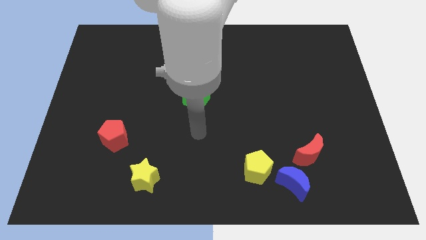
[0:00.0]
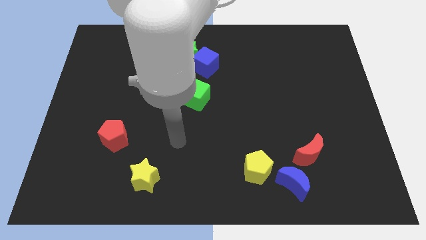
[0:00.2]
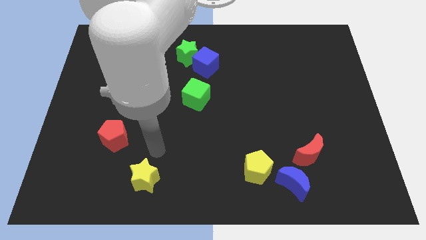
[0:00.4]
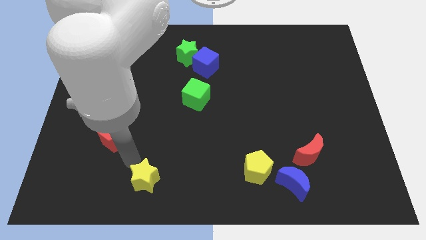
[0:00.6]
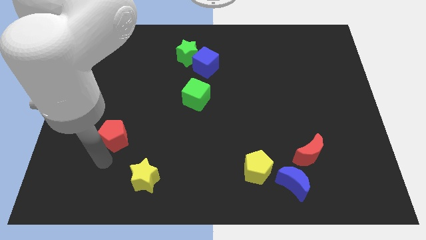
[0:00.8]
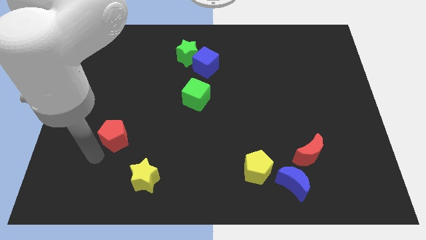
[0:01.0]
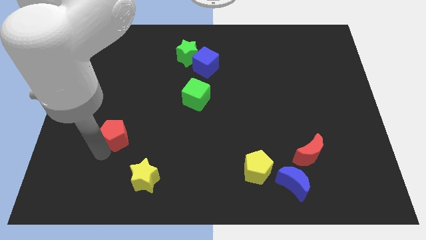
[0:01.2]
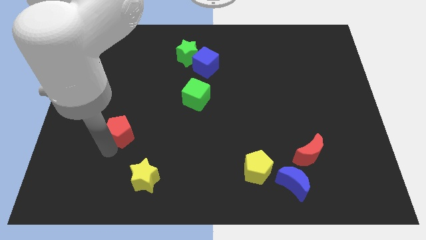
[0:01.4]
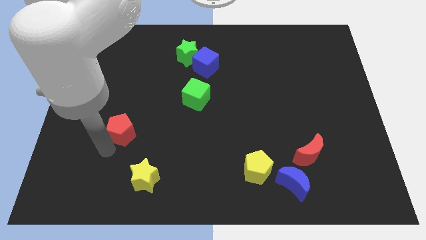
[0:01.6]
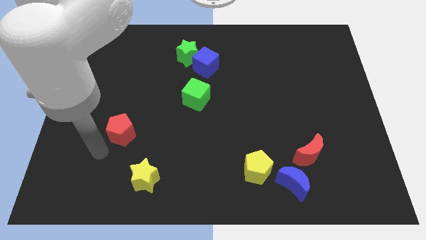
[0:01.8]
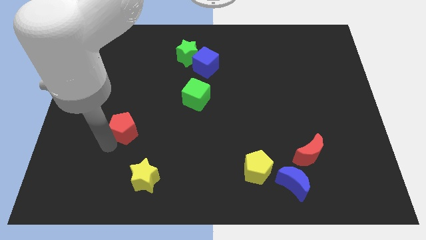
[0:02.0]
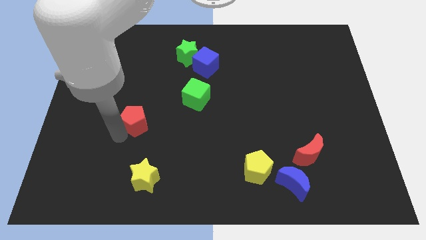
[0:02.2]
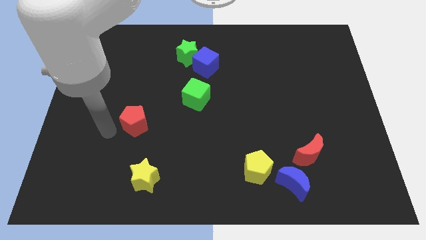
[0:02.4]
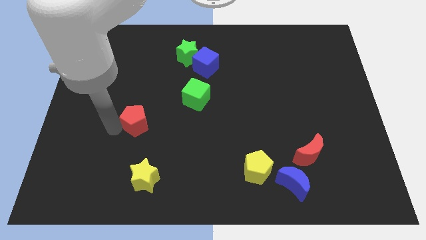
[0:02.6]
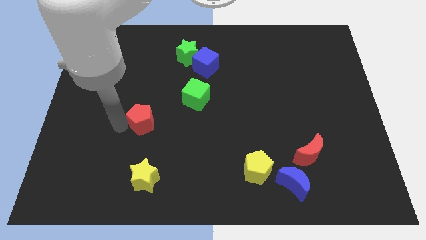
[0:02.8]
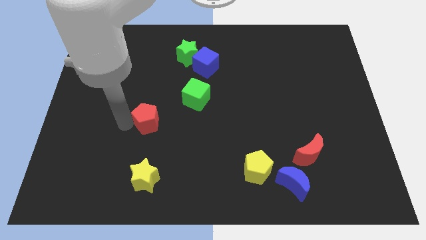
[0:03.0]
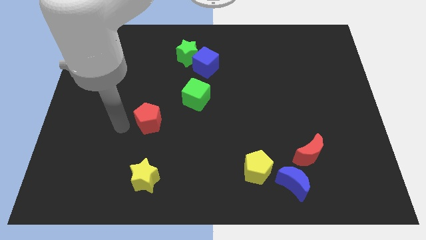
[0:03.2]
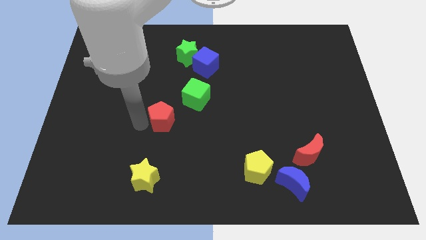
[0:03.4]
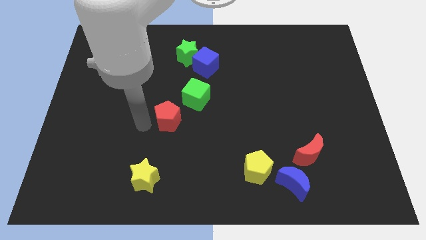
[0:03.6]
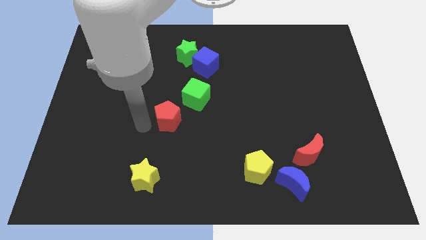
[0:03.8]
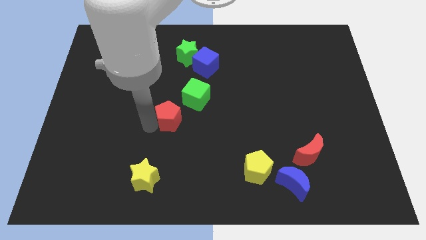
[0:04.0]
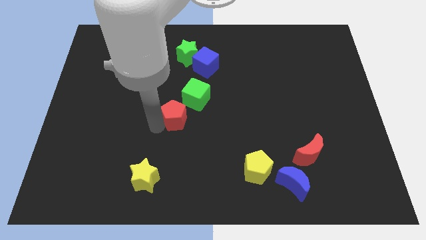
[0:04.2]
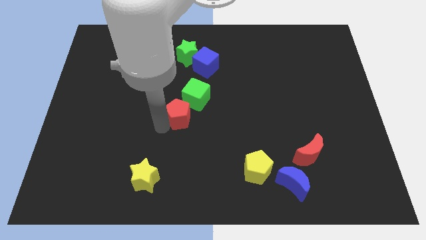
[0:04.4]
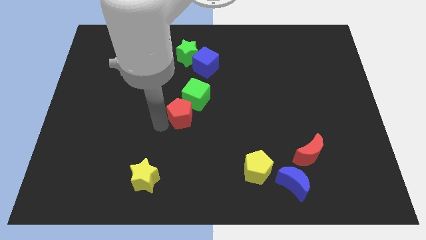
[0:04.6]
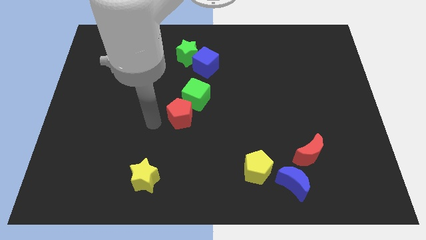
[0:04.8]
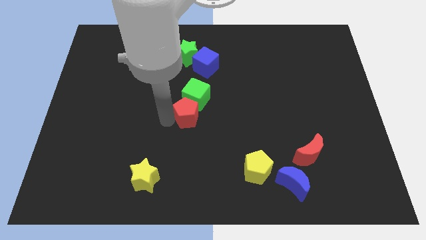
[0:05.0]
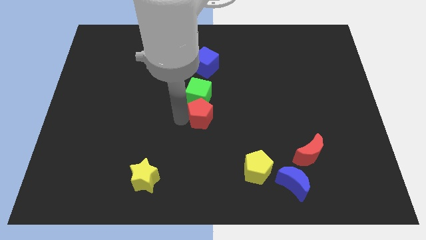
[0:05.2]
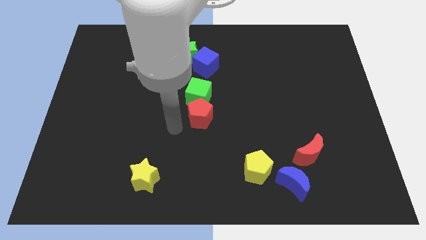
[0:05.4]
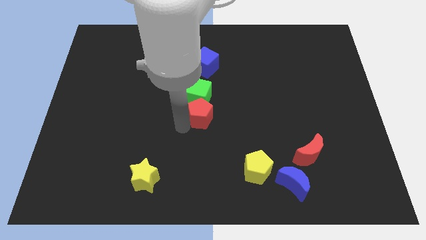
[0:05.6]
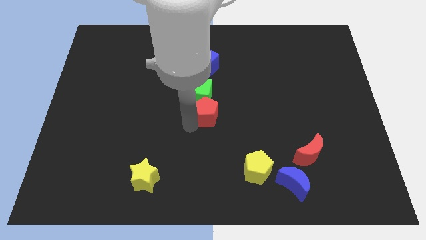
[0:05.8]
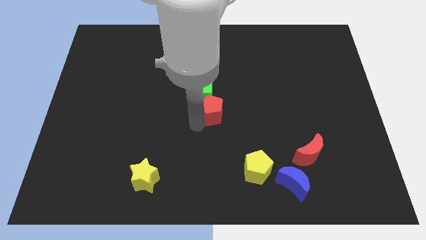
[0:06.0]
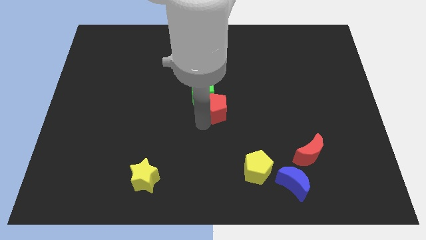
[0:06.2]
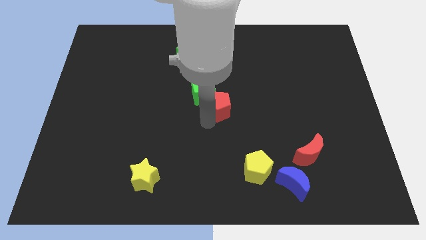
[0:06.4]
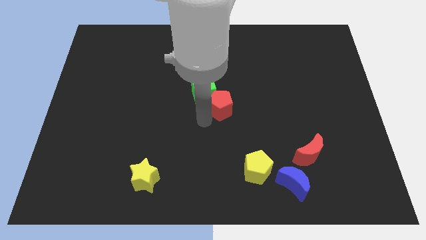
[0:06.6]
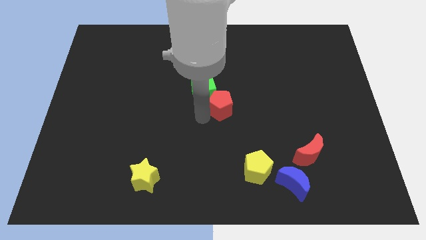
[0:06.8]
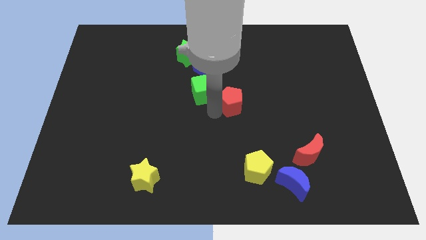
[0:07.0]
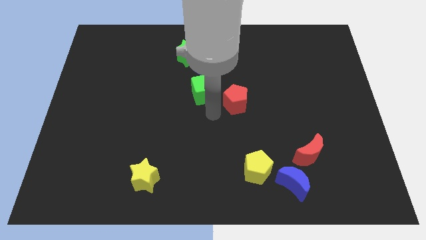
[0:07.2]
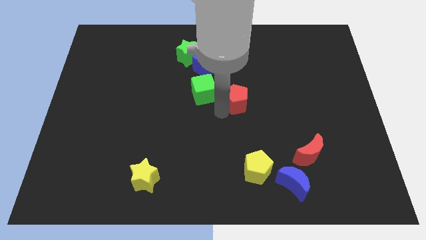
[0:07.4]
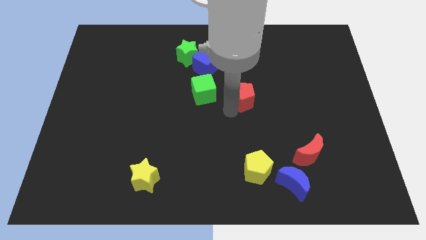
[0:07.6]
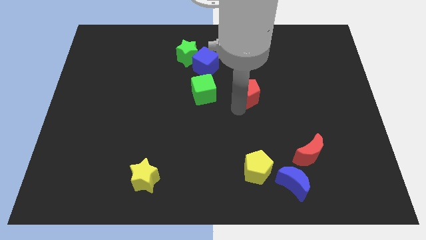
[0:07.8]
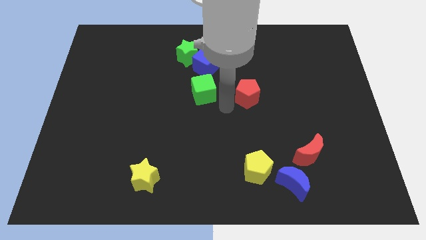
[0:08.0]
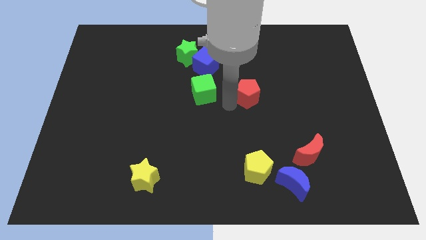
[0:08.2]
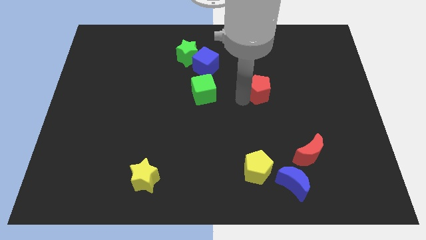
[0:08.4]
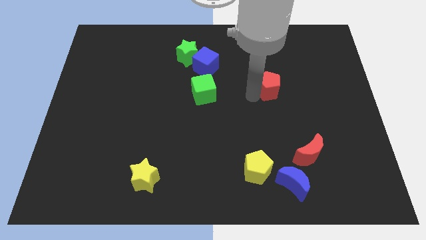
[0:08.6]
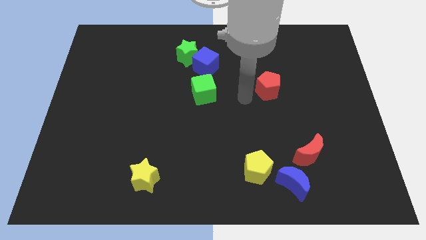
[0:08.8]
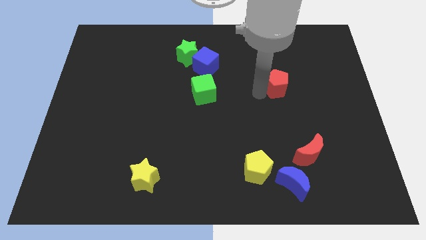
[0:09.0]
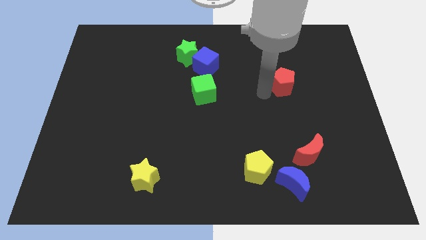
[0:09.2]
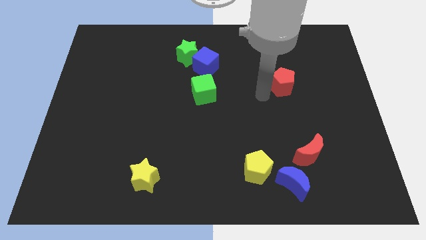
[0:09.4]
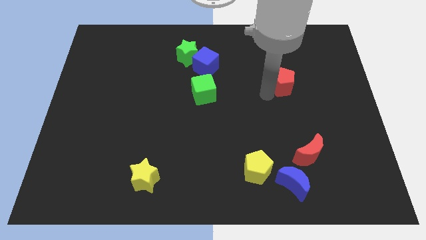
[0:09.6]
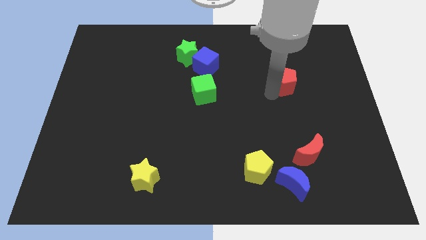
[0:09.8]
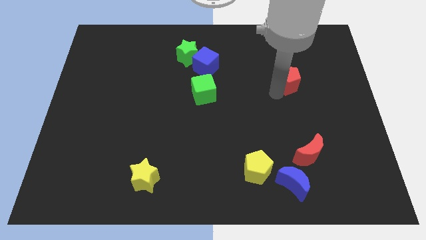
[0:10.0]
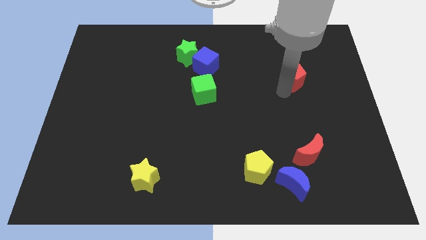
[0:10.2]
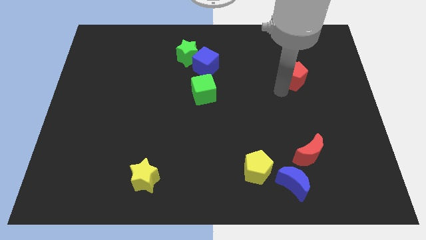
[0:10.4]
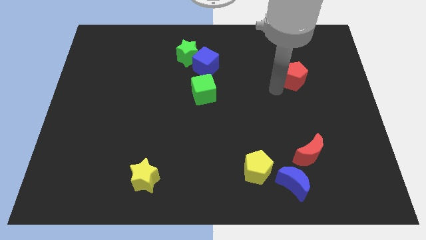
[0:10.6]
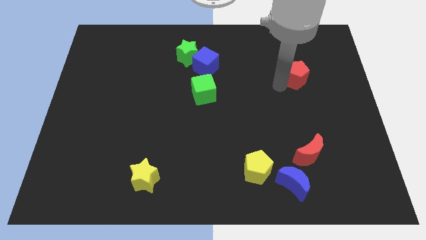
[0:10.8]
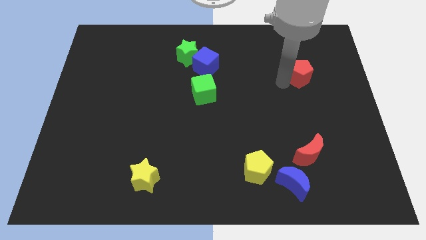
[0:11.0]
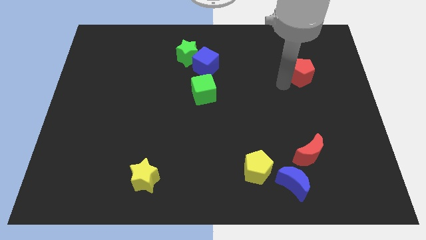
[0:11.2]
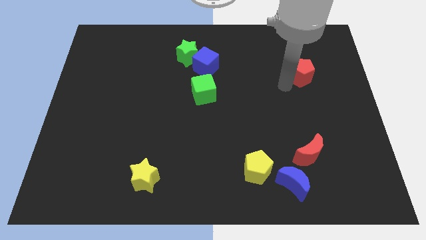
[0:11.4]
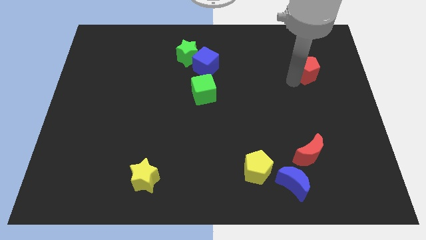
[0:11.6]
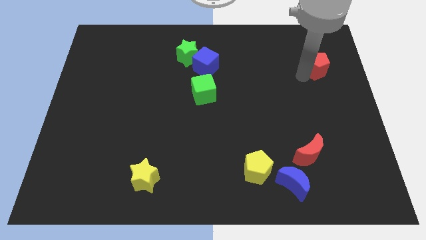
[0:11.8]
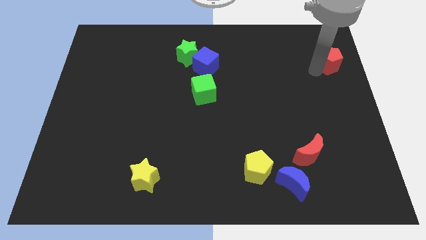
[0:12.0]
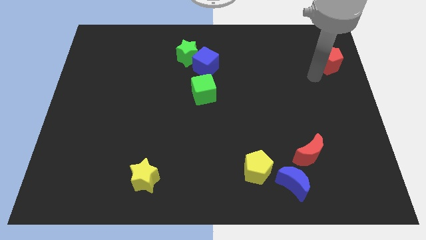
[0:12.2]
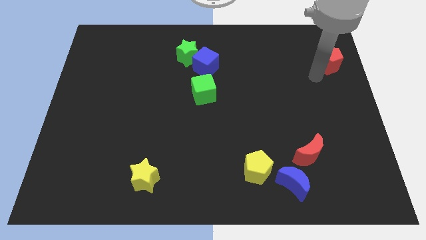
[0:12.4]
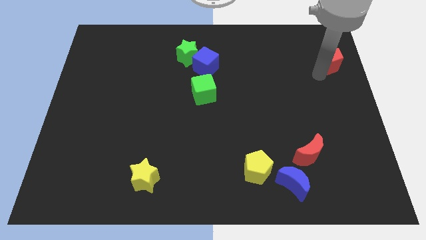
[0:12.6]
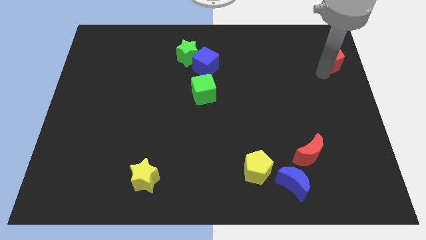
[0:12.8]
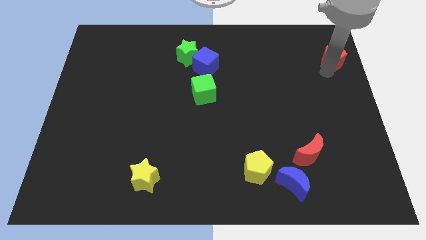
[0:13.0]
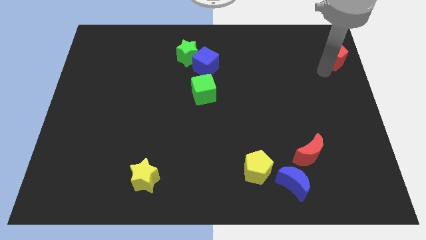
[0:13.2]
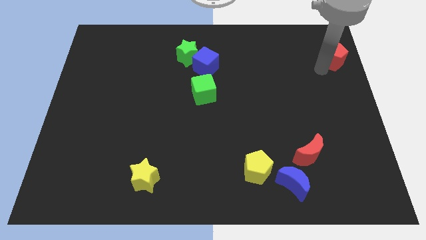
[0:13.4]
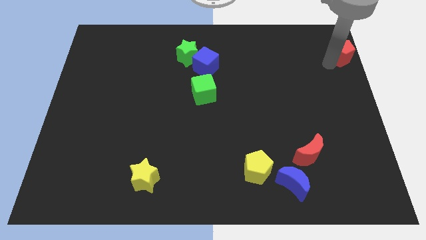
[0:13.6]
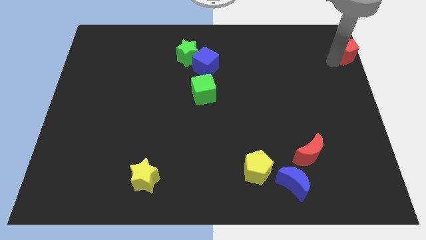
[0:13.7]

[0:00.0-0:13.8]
put the red pentagon to the top right corner
